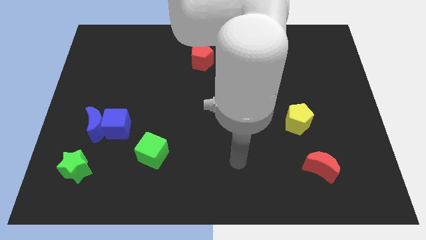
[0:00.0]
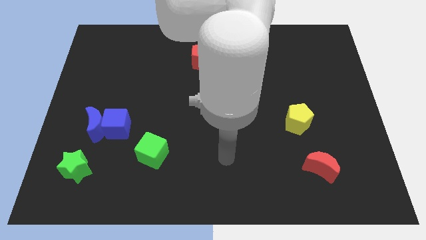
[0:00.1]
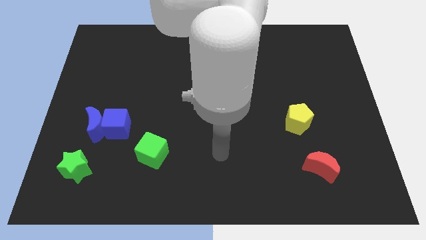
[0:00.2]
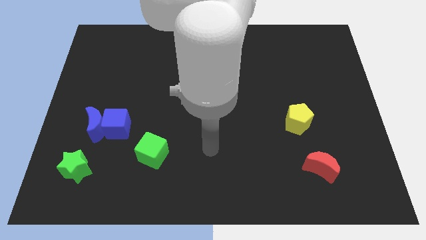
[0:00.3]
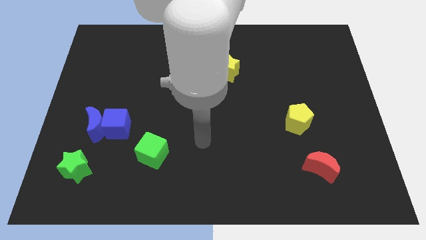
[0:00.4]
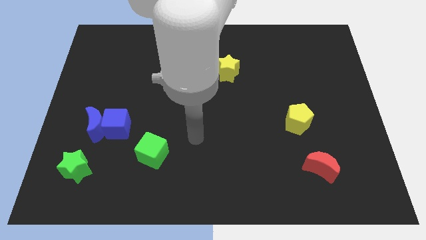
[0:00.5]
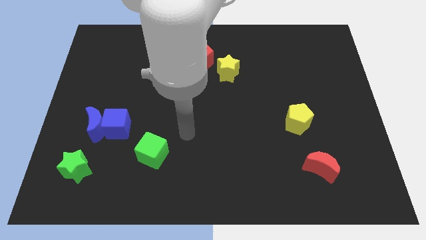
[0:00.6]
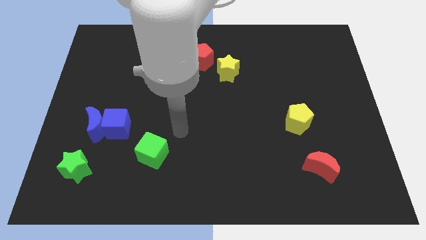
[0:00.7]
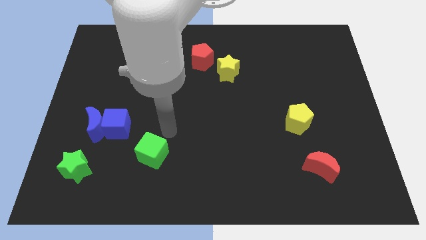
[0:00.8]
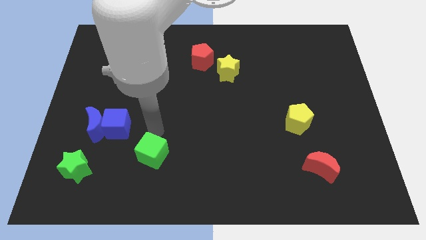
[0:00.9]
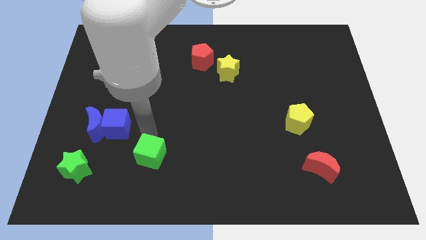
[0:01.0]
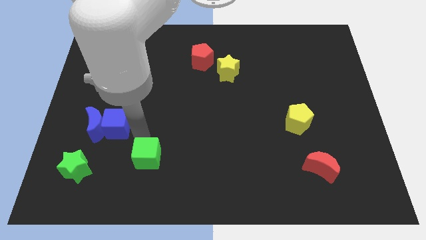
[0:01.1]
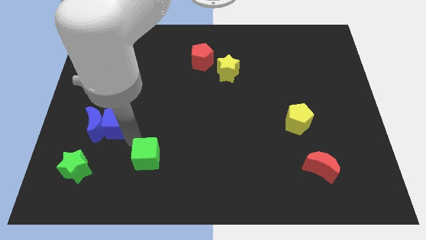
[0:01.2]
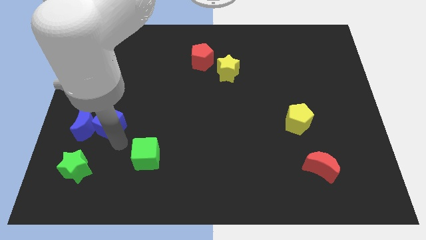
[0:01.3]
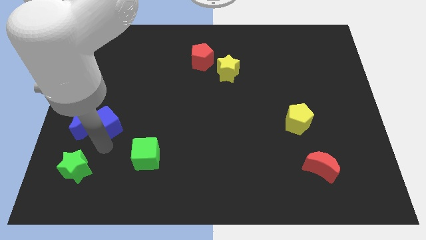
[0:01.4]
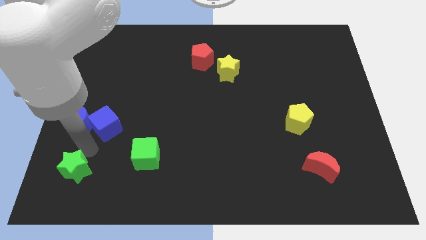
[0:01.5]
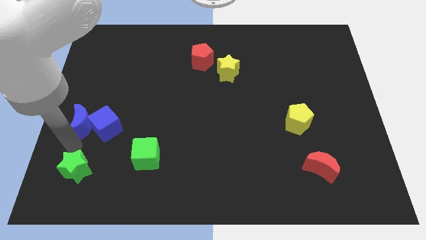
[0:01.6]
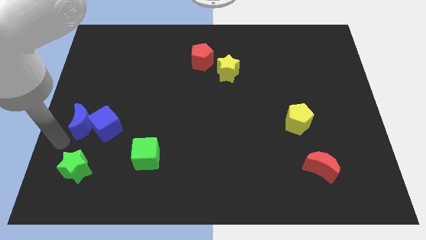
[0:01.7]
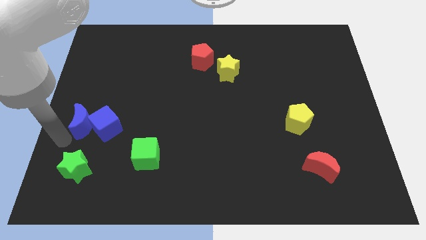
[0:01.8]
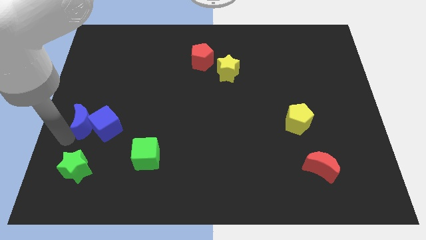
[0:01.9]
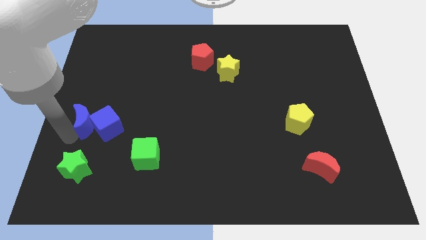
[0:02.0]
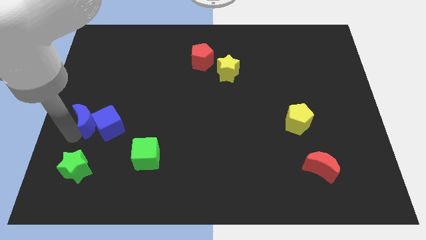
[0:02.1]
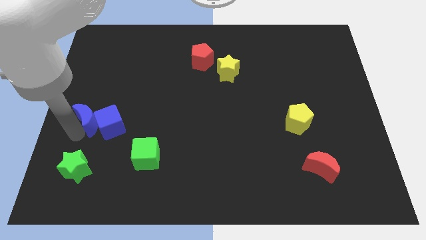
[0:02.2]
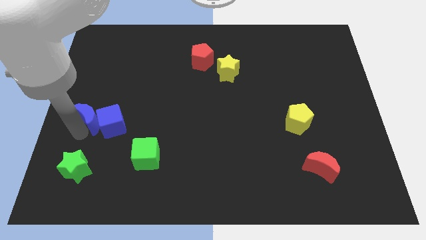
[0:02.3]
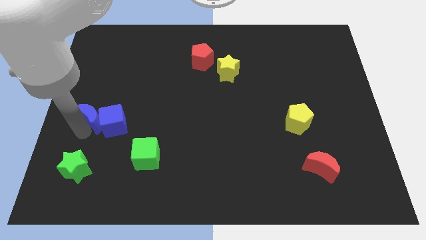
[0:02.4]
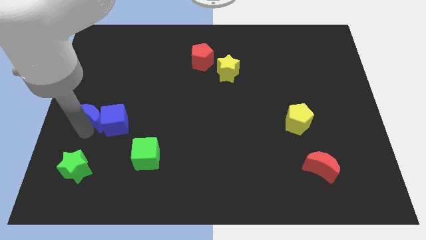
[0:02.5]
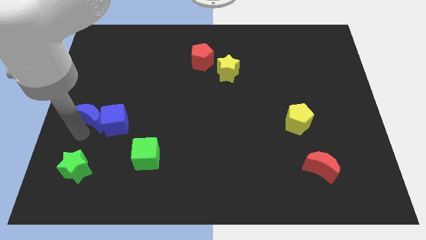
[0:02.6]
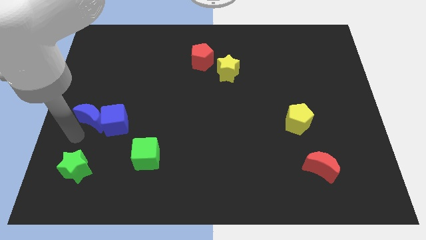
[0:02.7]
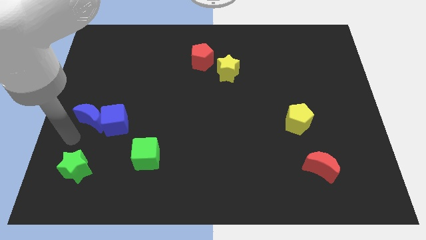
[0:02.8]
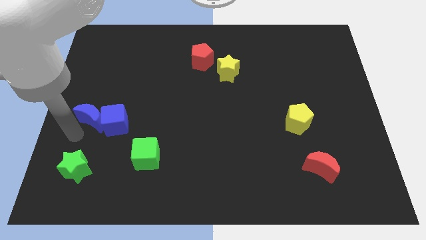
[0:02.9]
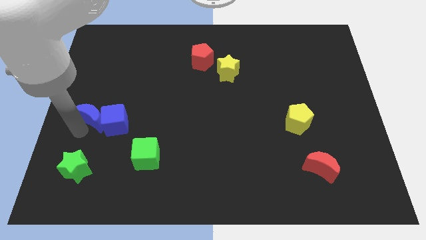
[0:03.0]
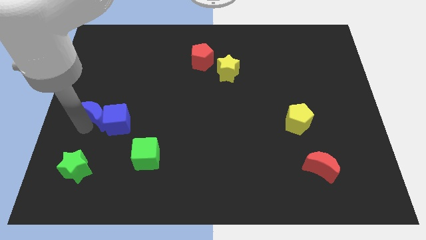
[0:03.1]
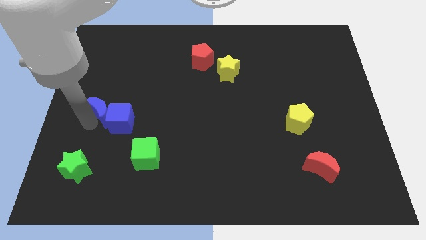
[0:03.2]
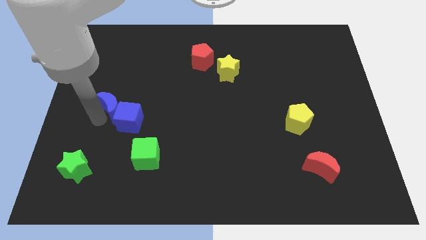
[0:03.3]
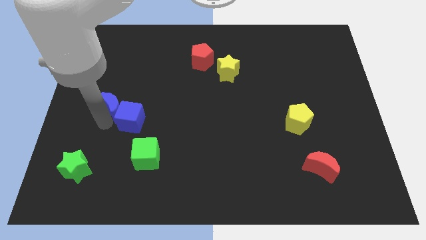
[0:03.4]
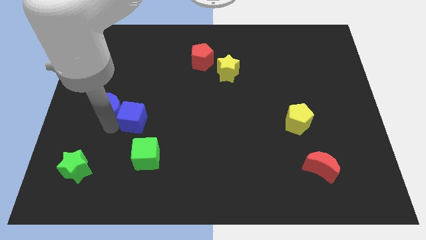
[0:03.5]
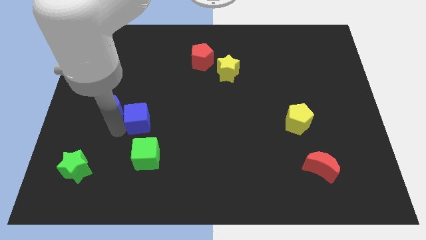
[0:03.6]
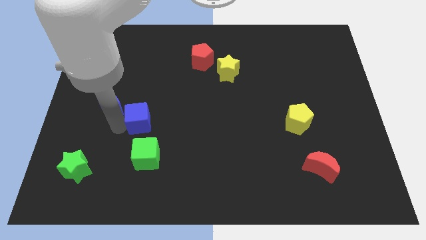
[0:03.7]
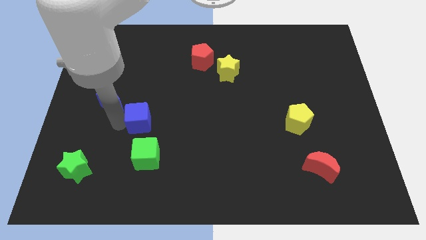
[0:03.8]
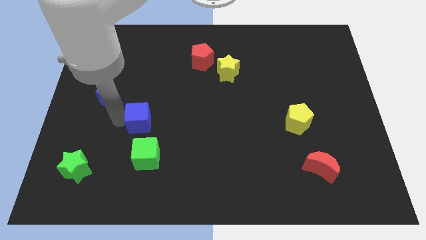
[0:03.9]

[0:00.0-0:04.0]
slide the blue moon a little up

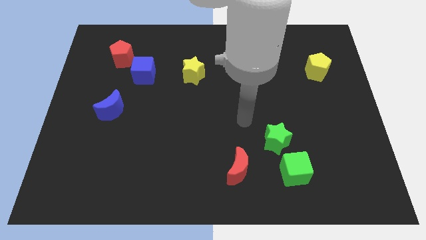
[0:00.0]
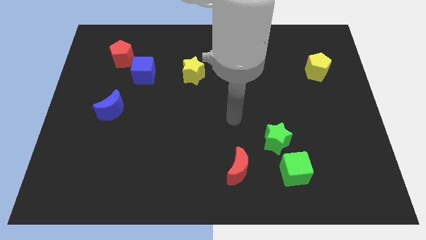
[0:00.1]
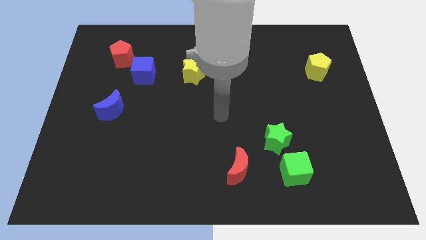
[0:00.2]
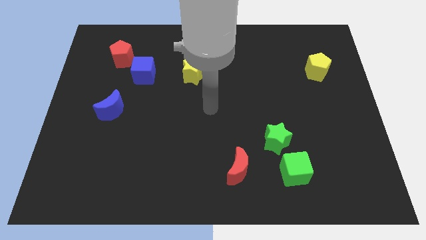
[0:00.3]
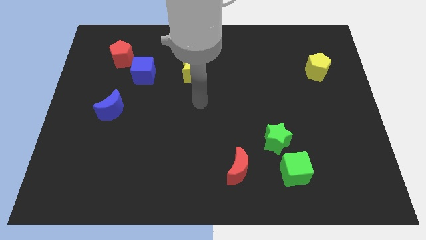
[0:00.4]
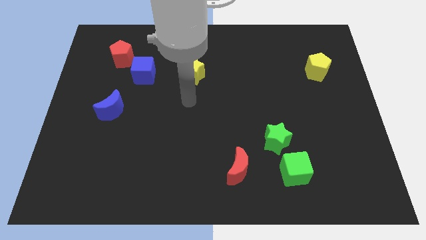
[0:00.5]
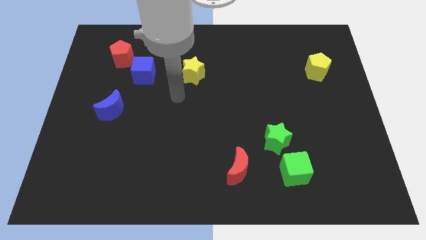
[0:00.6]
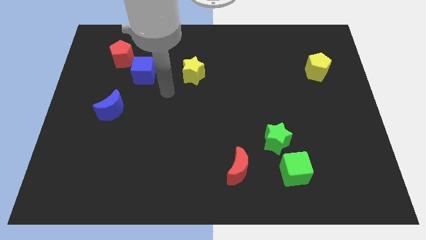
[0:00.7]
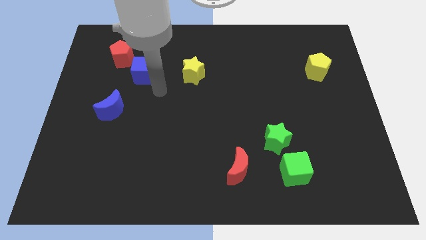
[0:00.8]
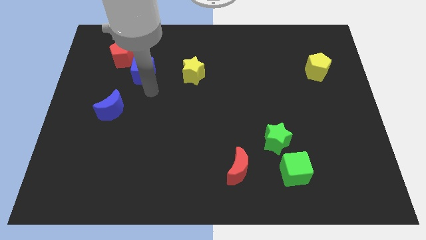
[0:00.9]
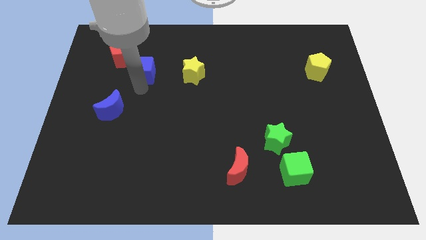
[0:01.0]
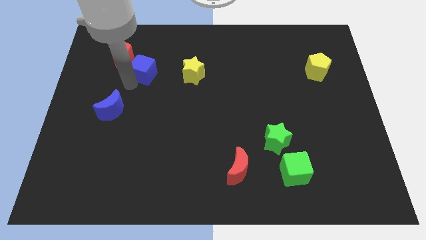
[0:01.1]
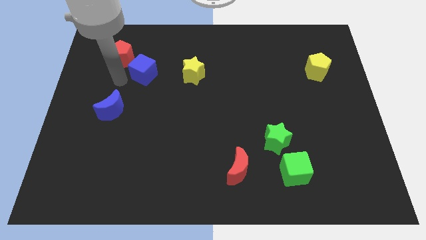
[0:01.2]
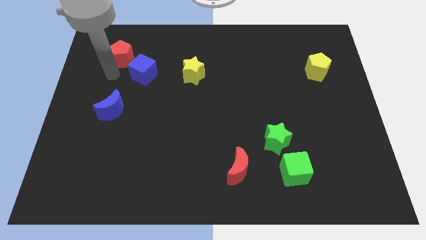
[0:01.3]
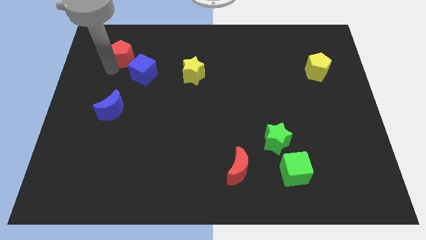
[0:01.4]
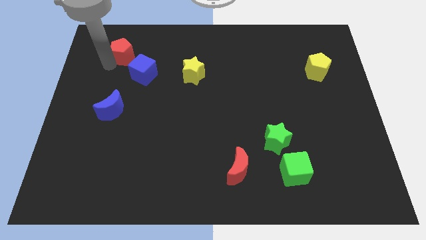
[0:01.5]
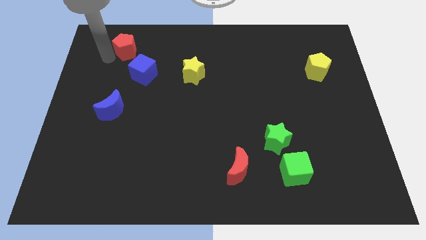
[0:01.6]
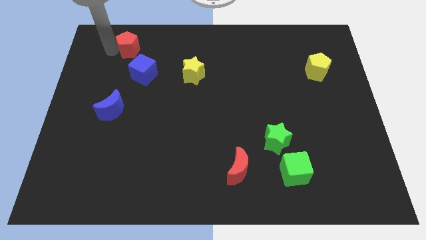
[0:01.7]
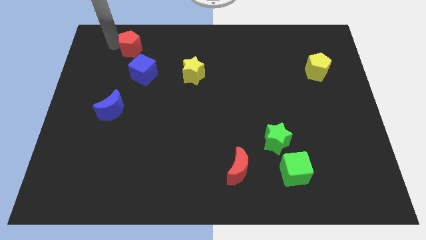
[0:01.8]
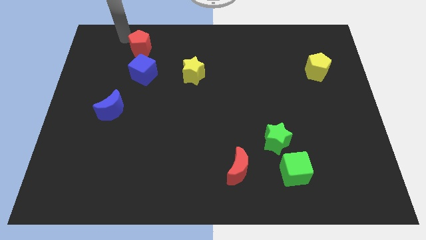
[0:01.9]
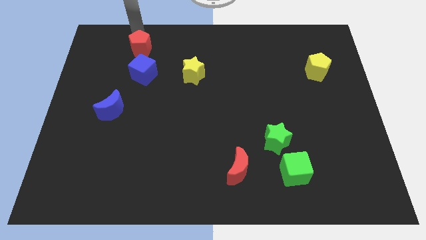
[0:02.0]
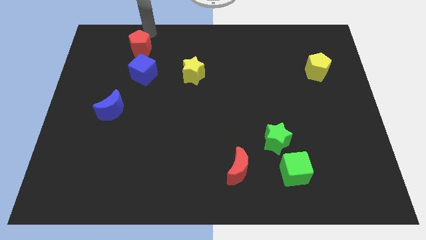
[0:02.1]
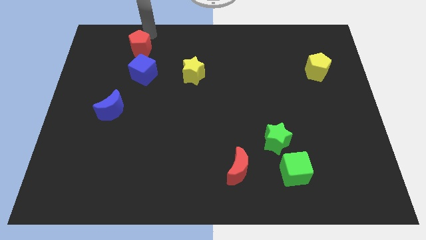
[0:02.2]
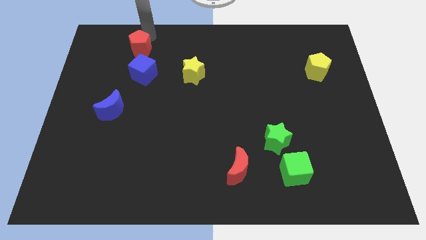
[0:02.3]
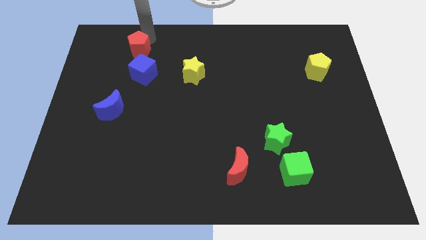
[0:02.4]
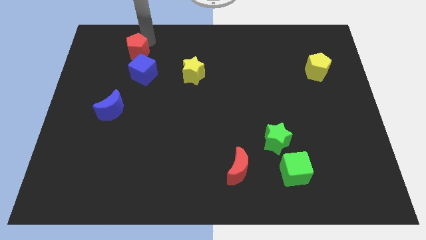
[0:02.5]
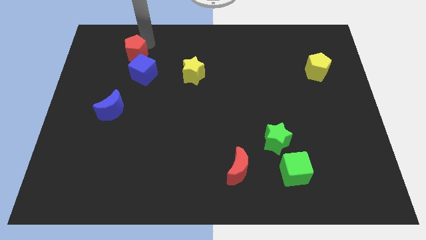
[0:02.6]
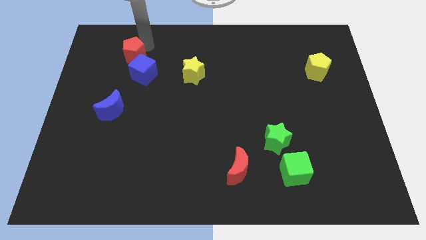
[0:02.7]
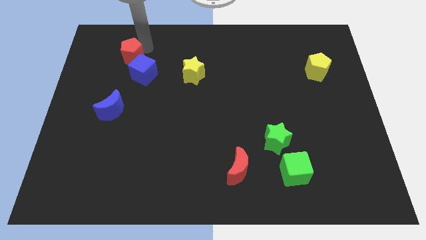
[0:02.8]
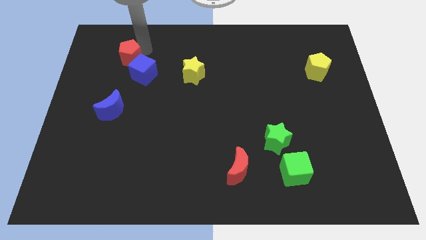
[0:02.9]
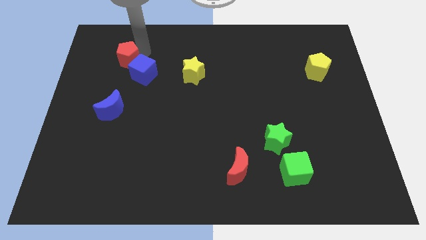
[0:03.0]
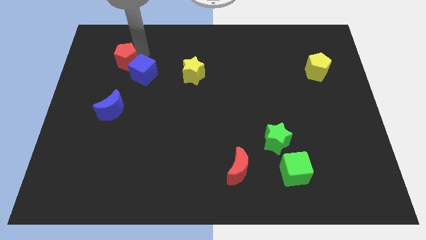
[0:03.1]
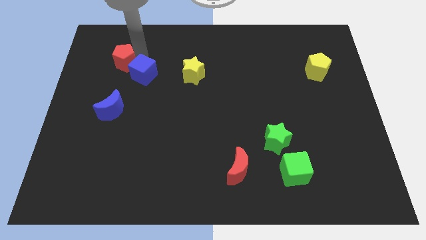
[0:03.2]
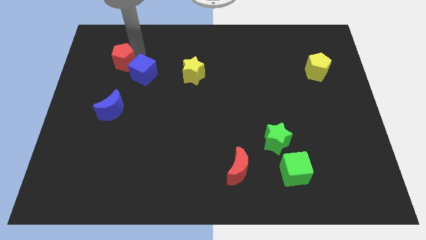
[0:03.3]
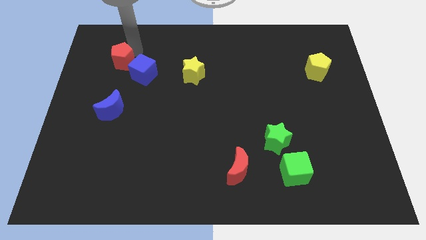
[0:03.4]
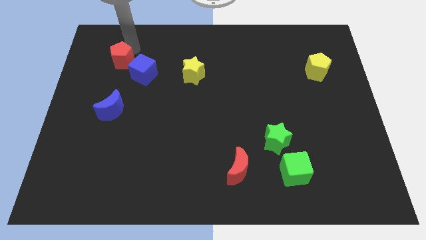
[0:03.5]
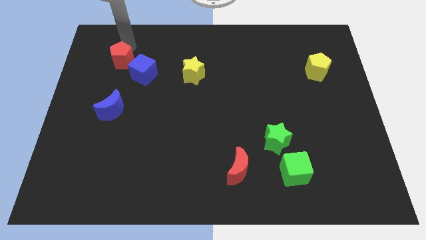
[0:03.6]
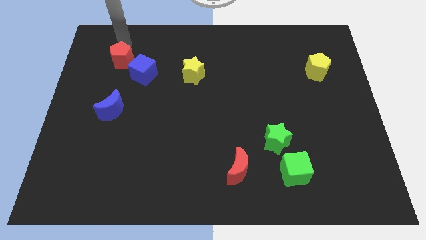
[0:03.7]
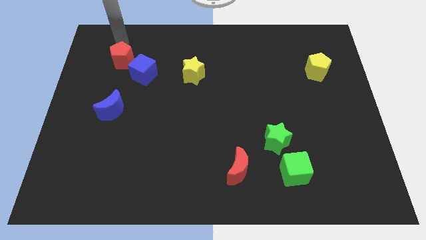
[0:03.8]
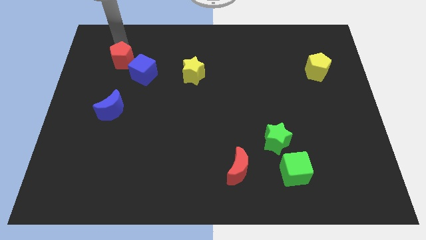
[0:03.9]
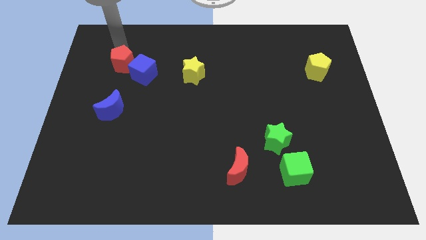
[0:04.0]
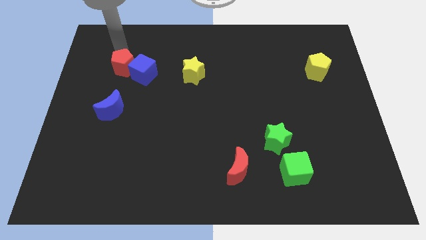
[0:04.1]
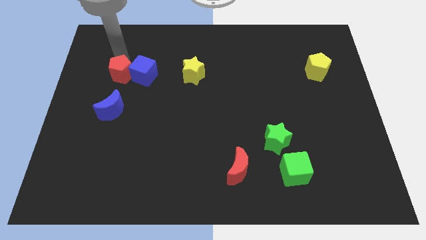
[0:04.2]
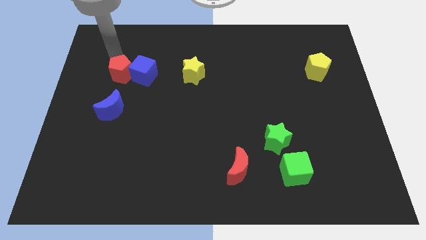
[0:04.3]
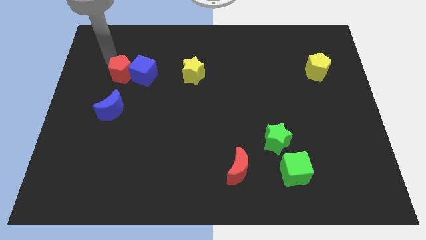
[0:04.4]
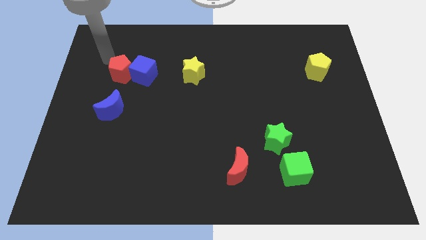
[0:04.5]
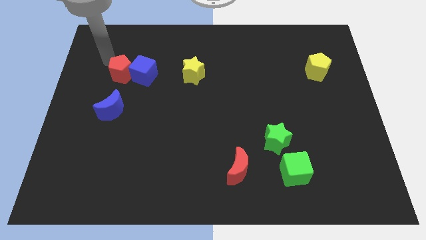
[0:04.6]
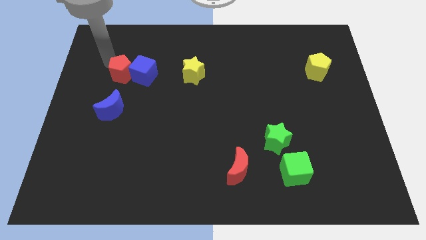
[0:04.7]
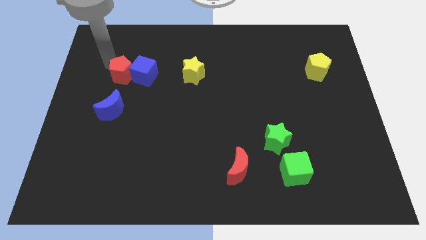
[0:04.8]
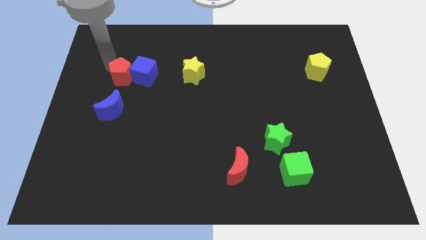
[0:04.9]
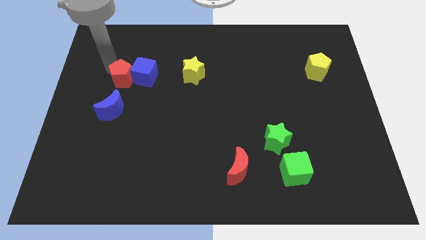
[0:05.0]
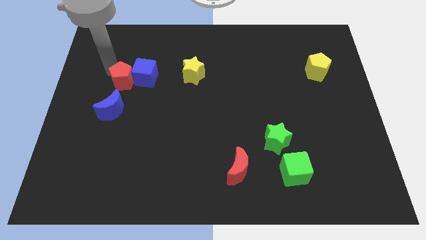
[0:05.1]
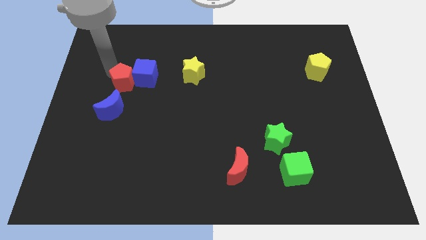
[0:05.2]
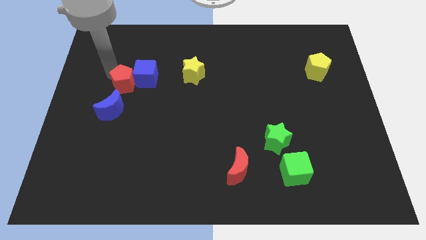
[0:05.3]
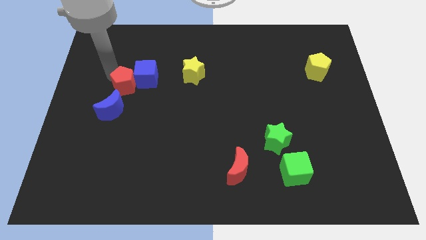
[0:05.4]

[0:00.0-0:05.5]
move the red pentagon downwards and right diagonally slightly
